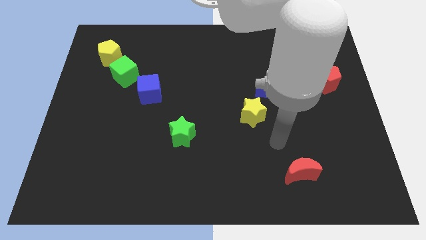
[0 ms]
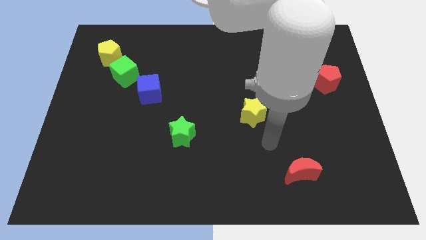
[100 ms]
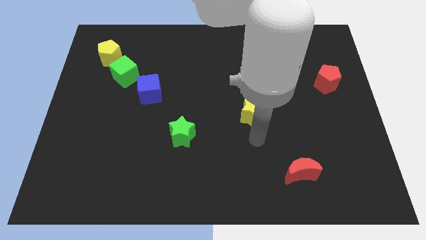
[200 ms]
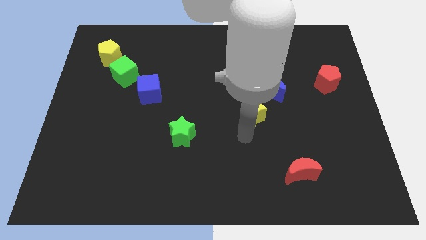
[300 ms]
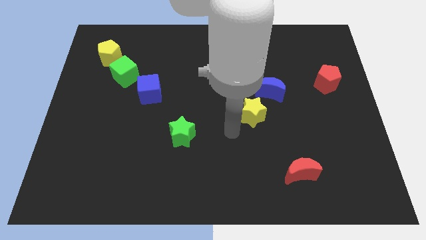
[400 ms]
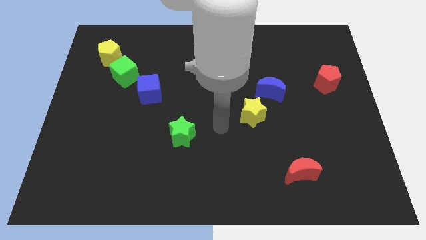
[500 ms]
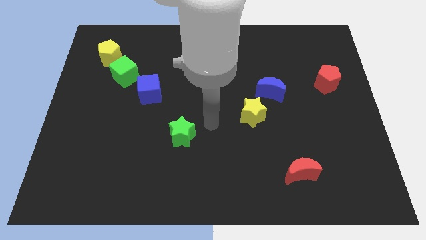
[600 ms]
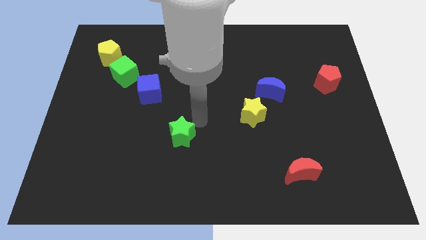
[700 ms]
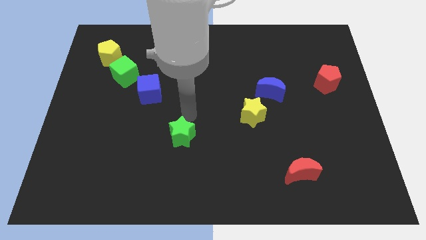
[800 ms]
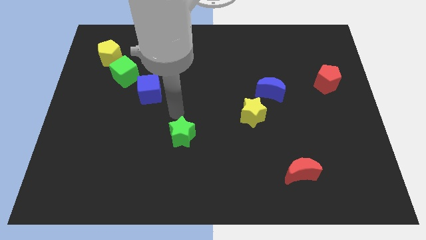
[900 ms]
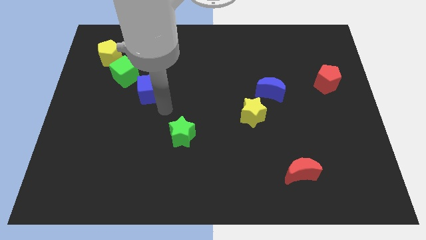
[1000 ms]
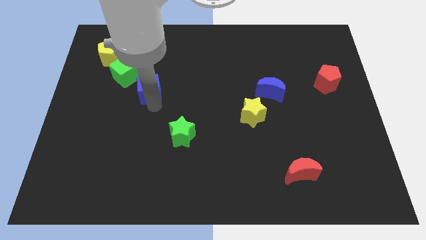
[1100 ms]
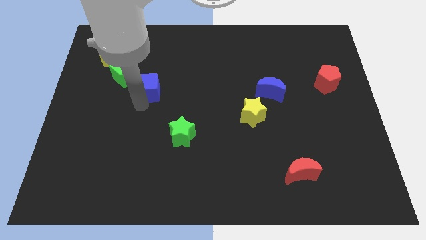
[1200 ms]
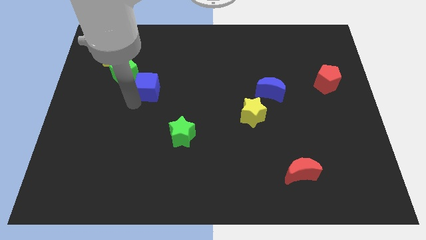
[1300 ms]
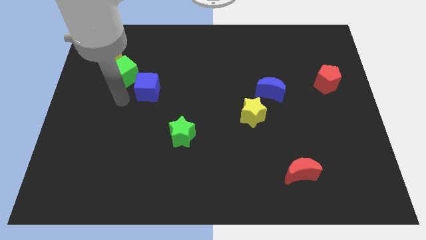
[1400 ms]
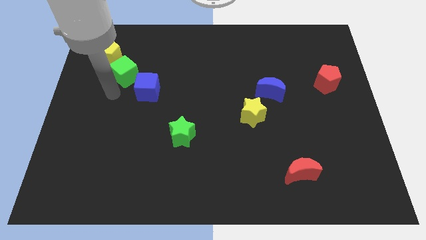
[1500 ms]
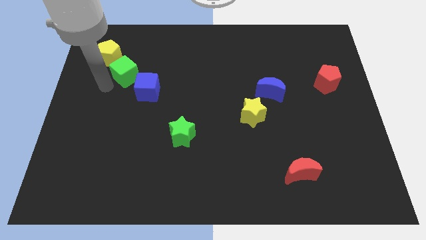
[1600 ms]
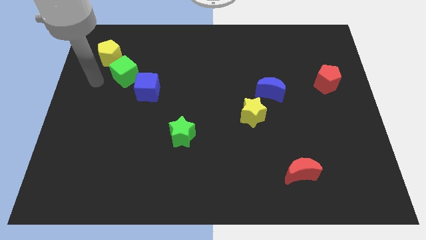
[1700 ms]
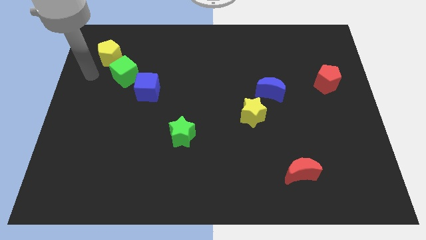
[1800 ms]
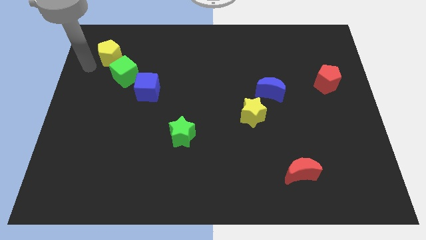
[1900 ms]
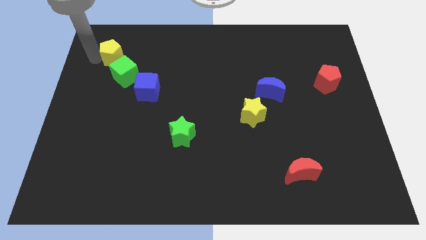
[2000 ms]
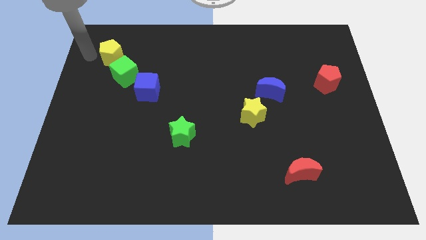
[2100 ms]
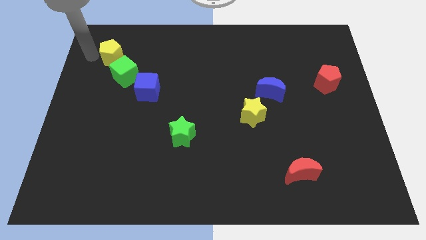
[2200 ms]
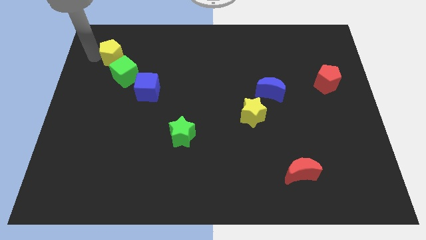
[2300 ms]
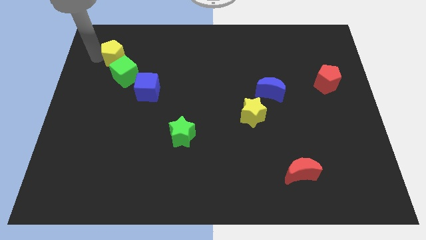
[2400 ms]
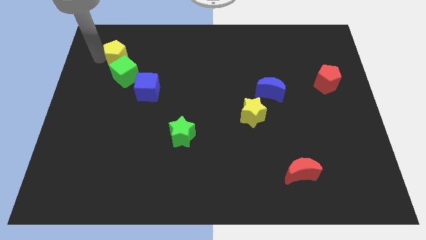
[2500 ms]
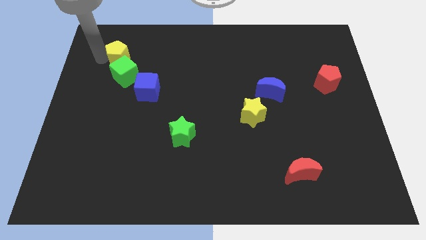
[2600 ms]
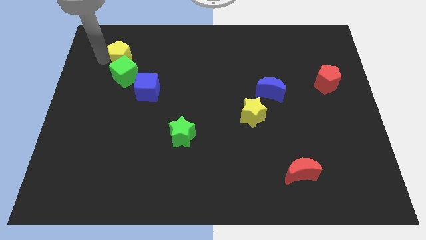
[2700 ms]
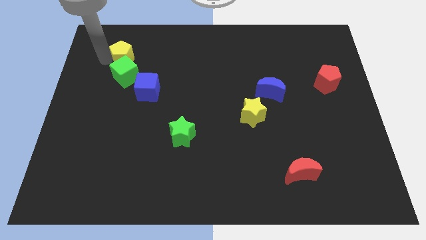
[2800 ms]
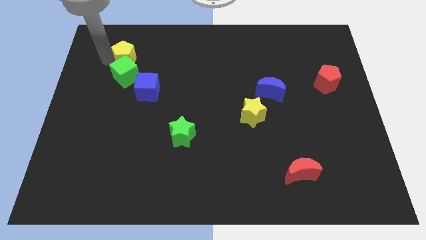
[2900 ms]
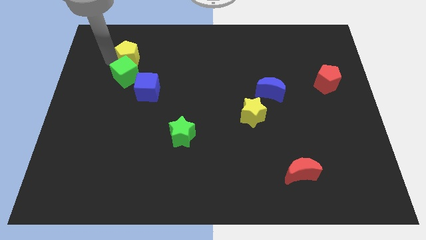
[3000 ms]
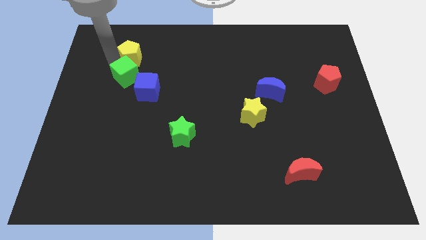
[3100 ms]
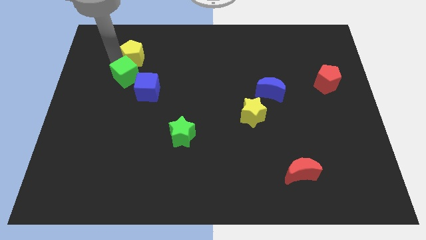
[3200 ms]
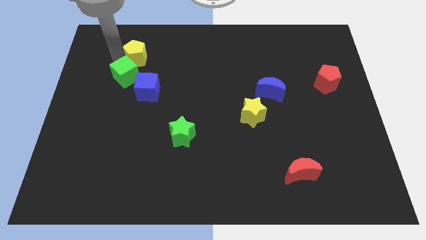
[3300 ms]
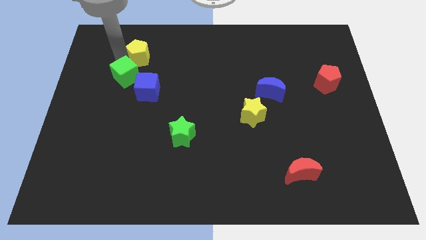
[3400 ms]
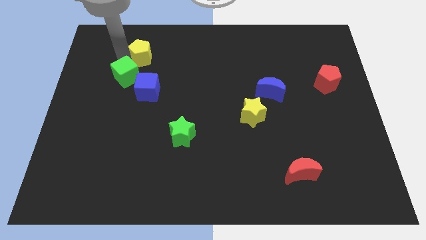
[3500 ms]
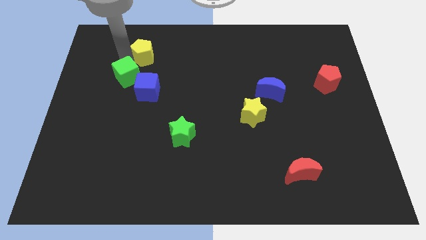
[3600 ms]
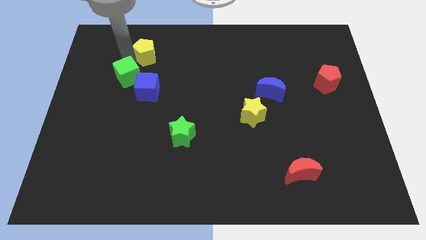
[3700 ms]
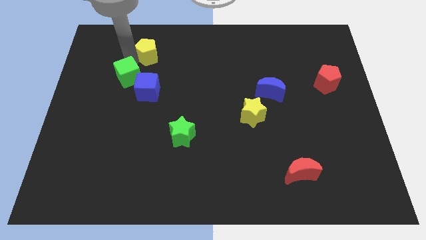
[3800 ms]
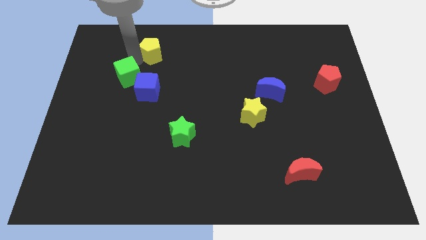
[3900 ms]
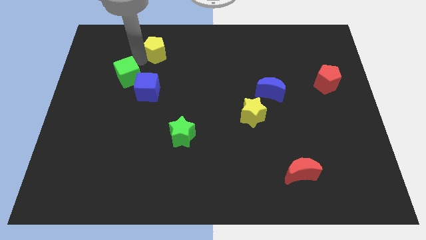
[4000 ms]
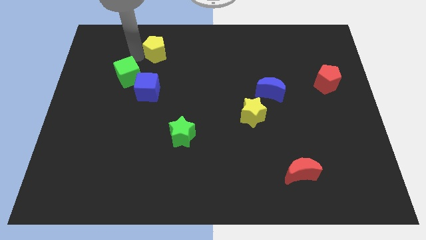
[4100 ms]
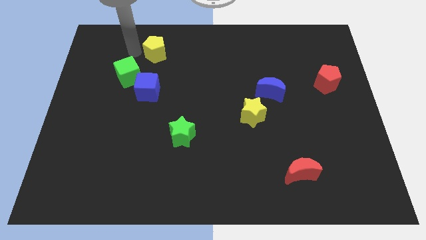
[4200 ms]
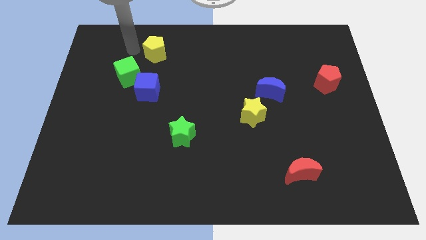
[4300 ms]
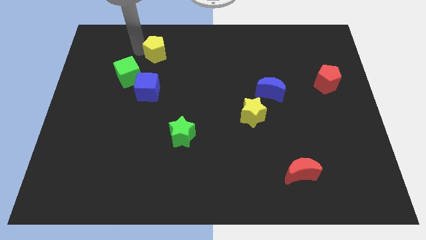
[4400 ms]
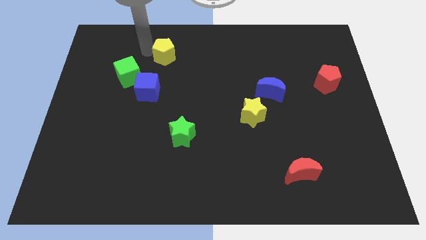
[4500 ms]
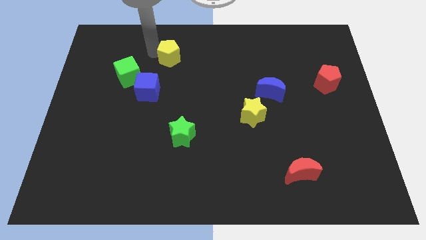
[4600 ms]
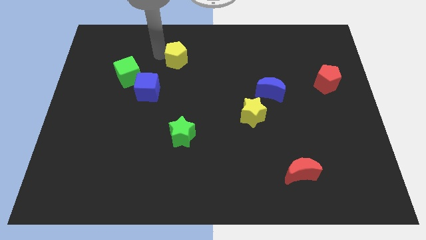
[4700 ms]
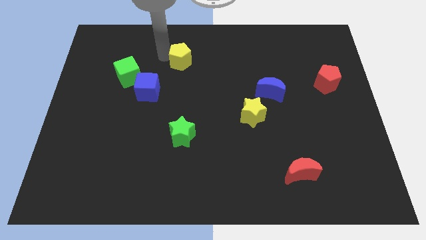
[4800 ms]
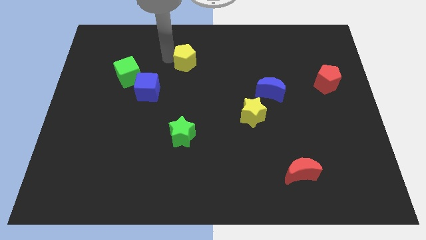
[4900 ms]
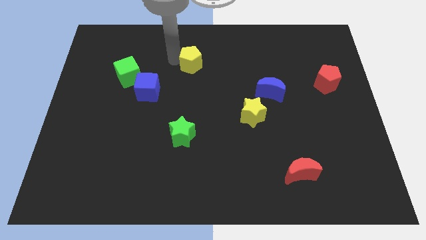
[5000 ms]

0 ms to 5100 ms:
slide the yellow pentagon right

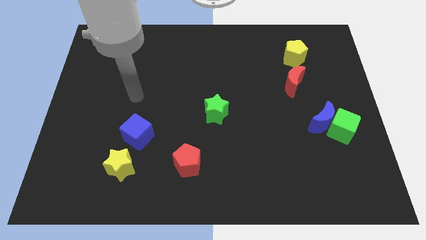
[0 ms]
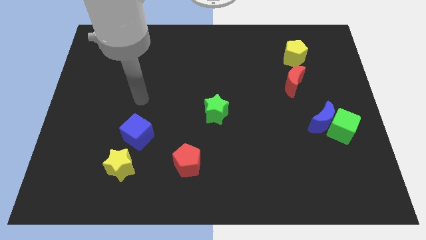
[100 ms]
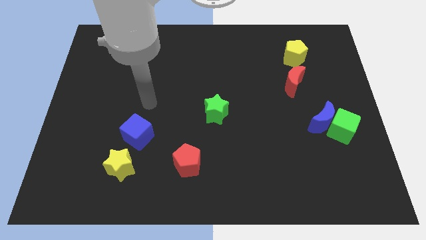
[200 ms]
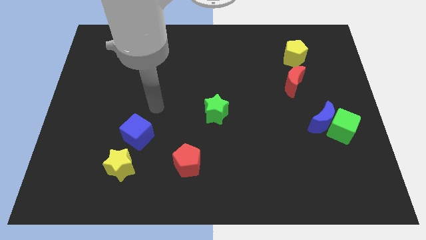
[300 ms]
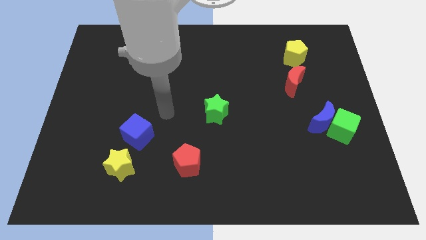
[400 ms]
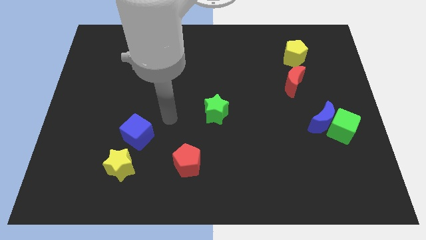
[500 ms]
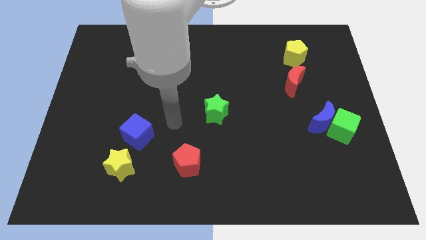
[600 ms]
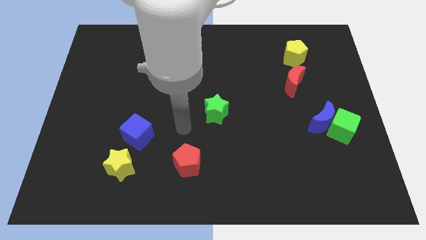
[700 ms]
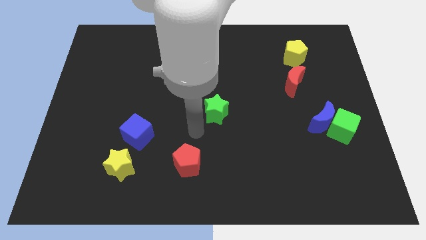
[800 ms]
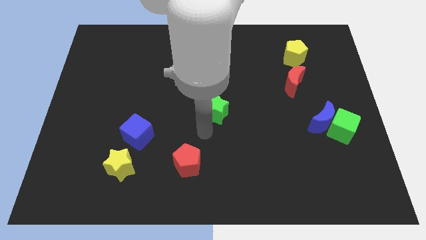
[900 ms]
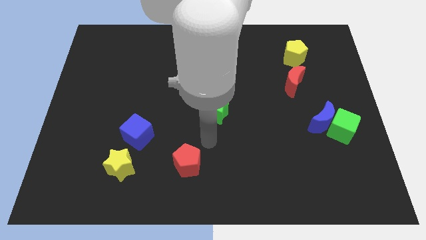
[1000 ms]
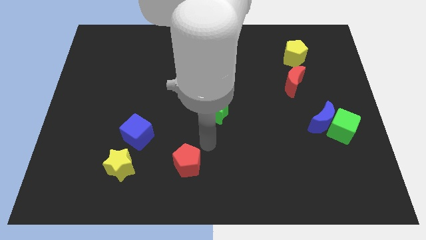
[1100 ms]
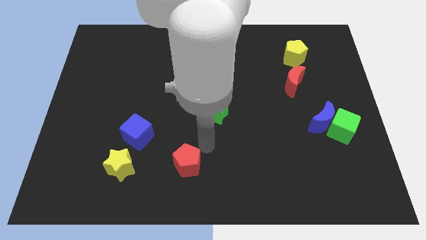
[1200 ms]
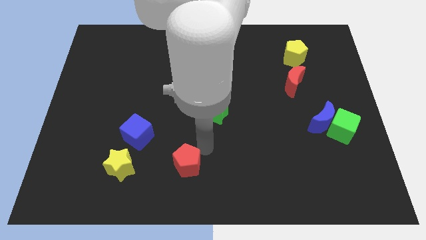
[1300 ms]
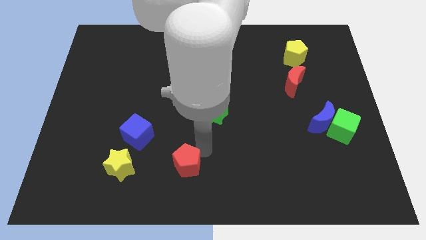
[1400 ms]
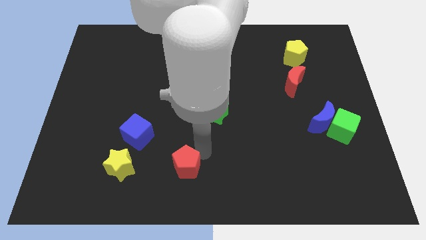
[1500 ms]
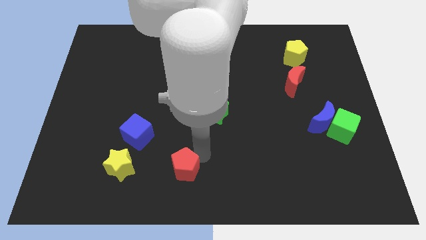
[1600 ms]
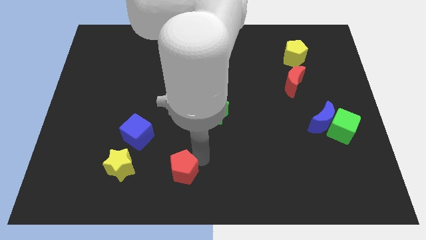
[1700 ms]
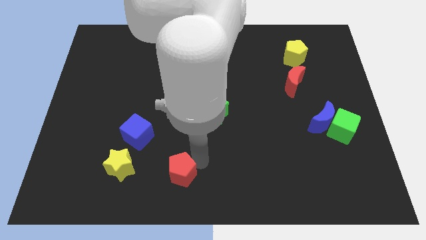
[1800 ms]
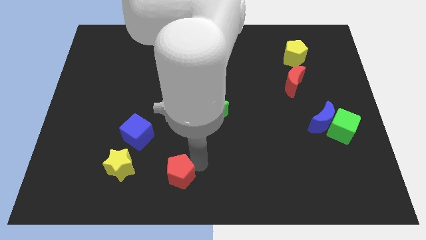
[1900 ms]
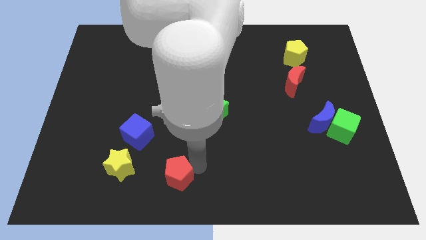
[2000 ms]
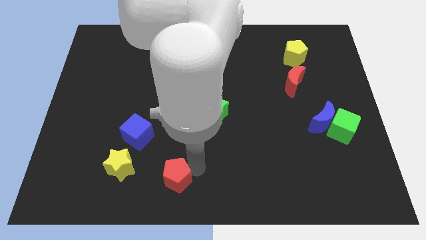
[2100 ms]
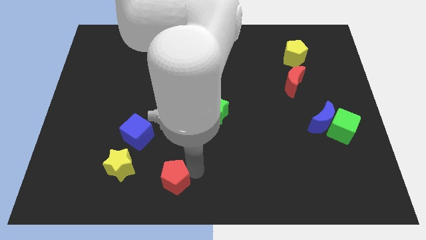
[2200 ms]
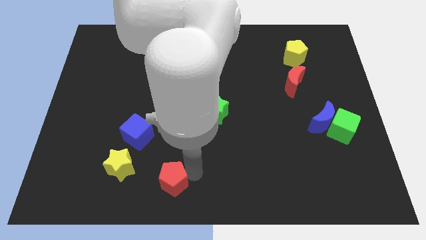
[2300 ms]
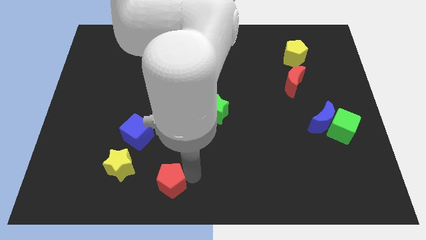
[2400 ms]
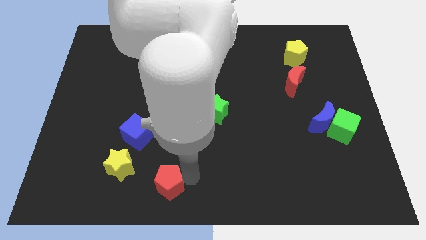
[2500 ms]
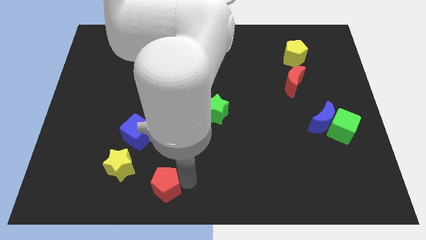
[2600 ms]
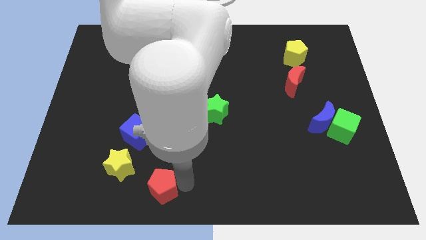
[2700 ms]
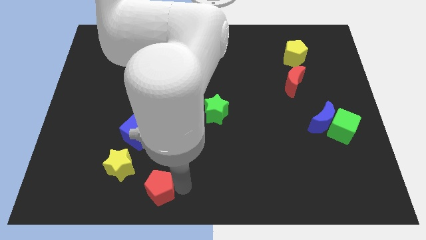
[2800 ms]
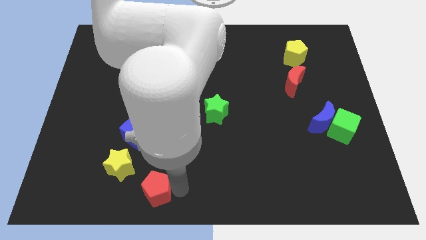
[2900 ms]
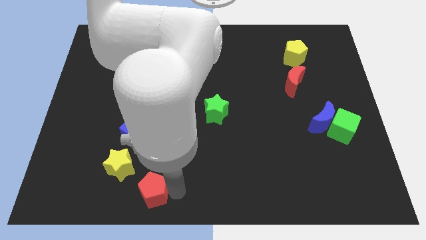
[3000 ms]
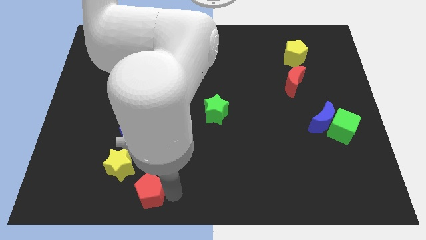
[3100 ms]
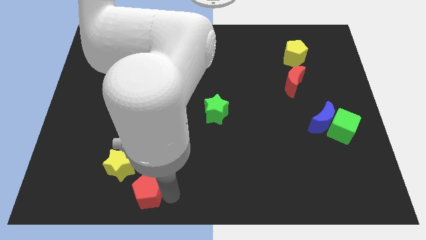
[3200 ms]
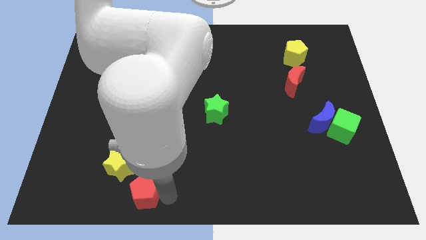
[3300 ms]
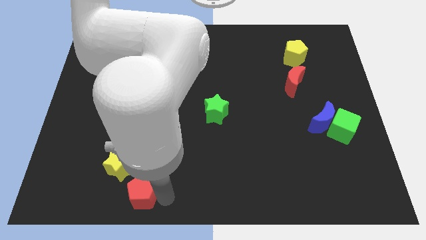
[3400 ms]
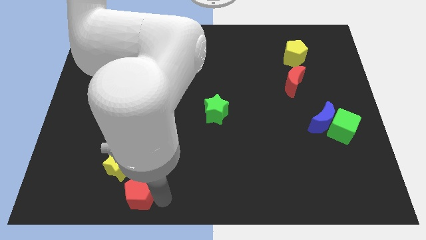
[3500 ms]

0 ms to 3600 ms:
move the red pentagon slightly to the left
